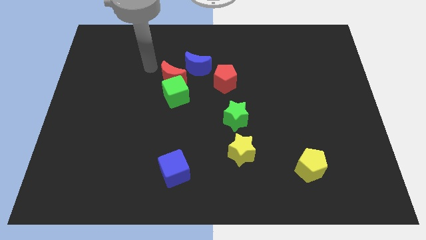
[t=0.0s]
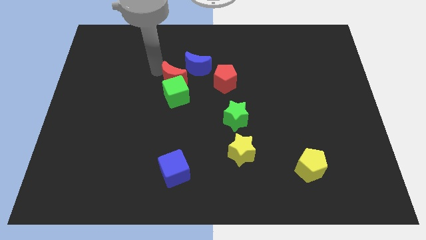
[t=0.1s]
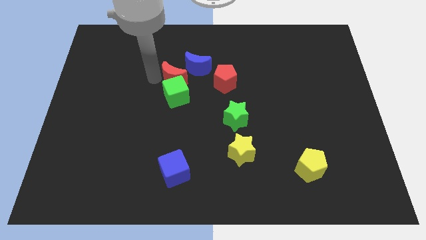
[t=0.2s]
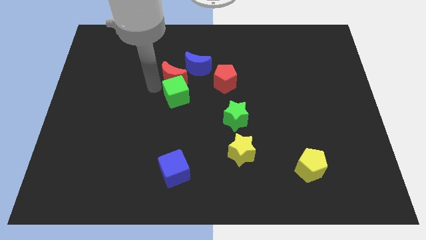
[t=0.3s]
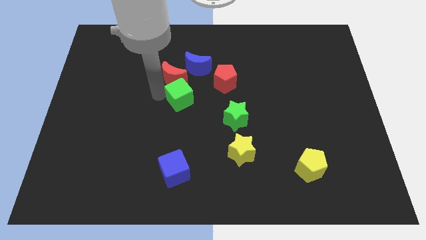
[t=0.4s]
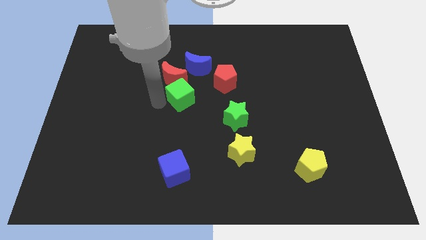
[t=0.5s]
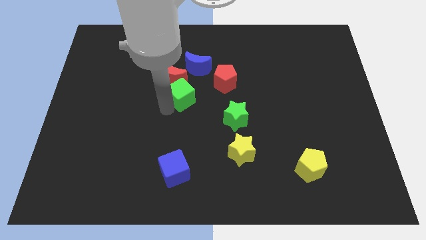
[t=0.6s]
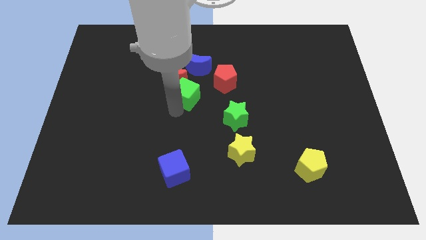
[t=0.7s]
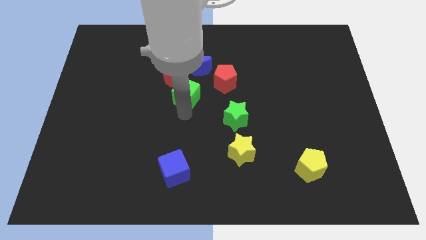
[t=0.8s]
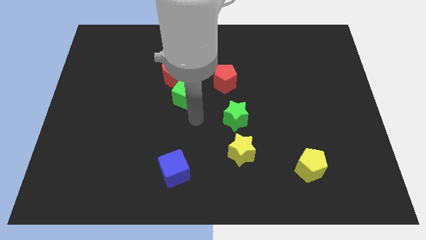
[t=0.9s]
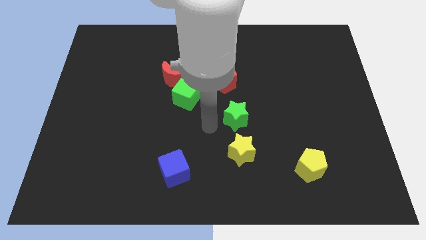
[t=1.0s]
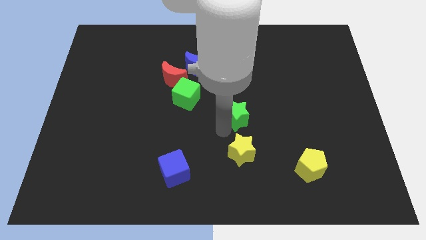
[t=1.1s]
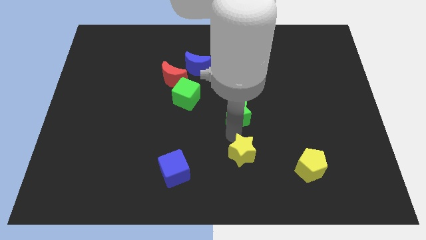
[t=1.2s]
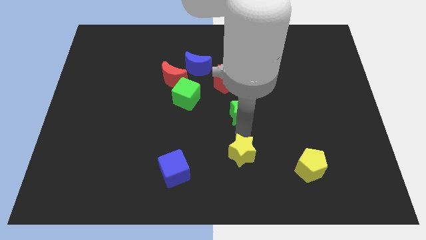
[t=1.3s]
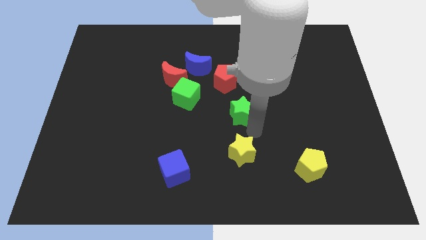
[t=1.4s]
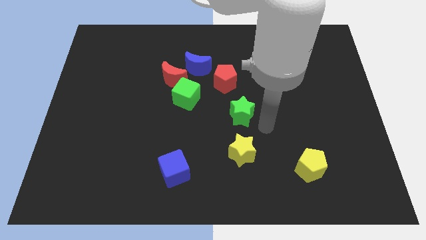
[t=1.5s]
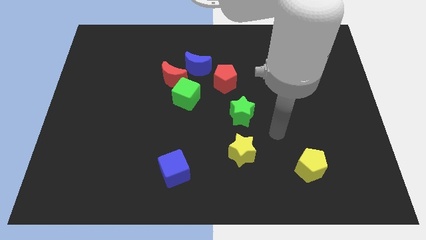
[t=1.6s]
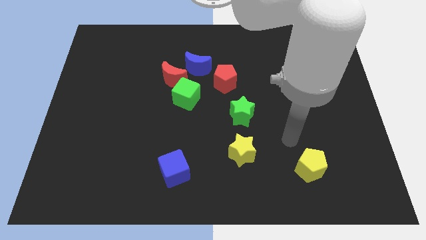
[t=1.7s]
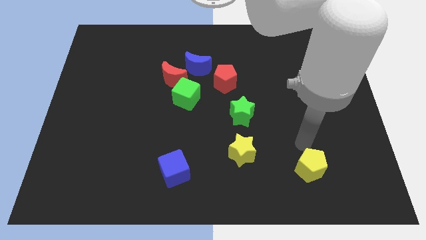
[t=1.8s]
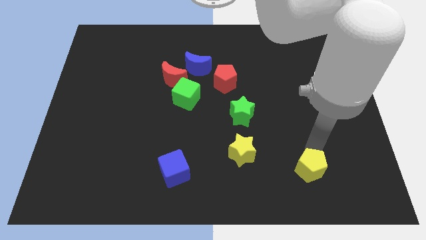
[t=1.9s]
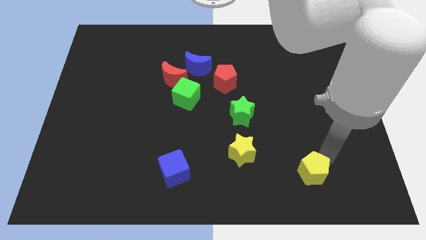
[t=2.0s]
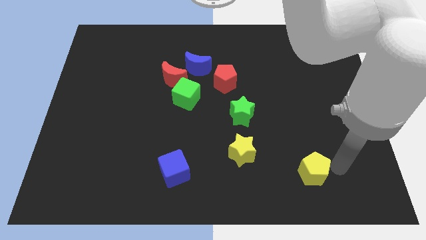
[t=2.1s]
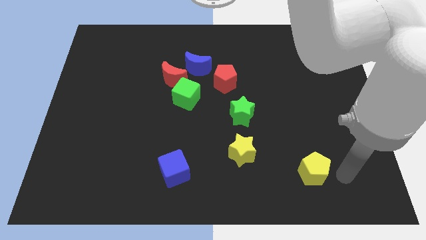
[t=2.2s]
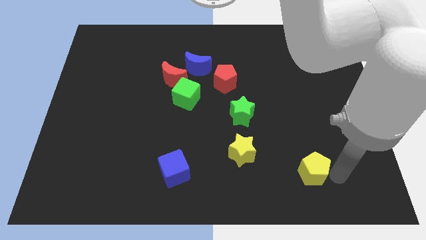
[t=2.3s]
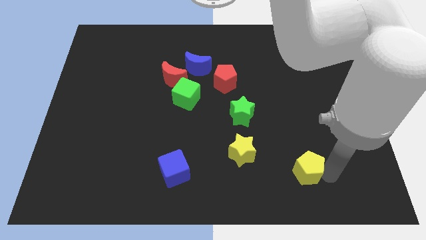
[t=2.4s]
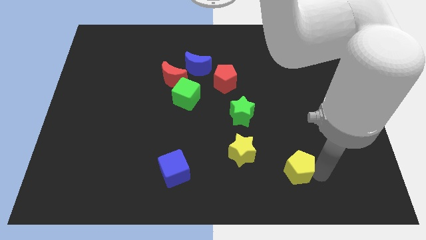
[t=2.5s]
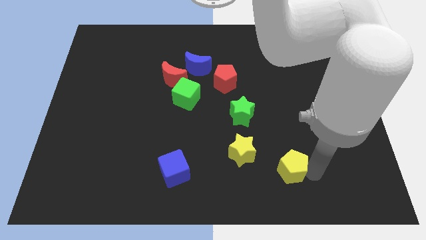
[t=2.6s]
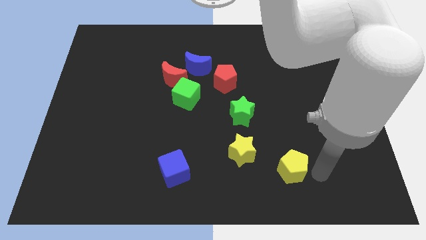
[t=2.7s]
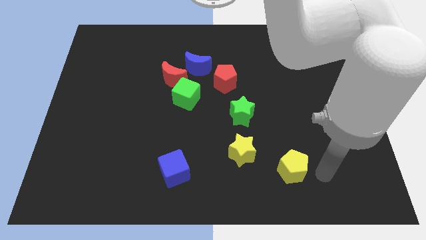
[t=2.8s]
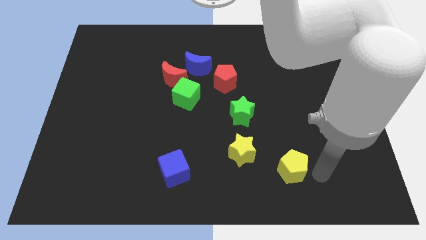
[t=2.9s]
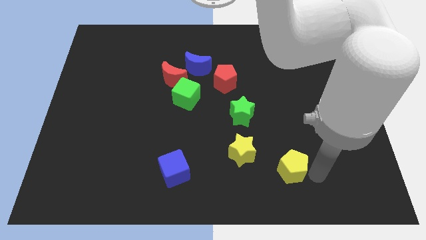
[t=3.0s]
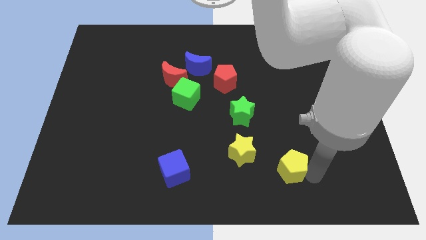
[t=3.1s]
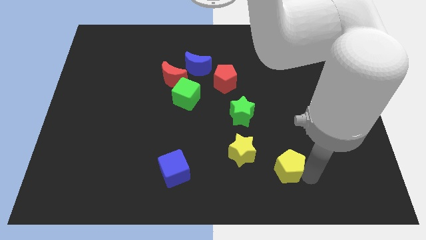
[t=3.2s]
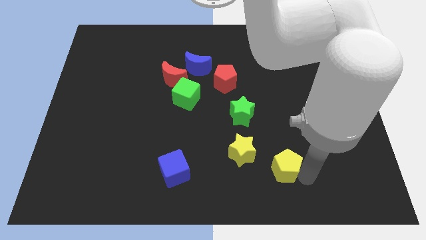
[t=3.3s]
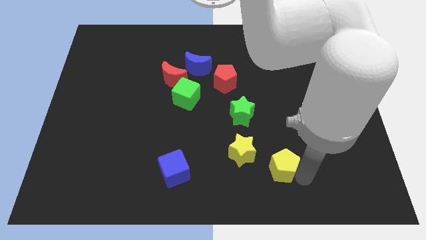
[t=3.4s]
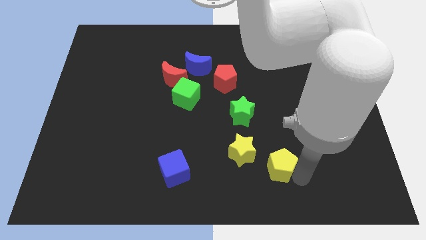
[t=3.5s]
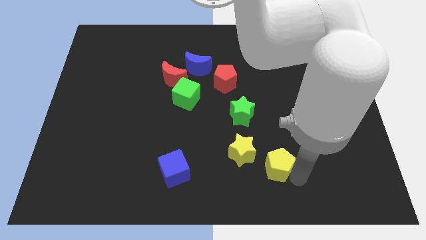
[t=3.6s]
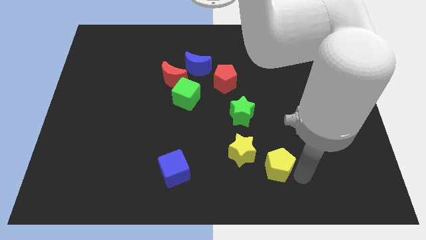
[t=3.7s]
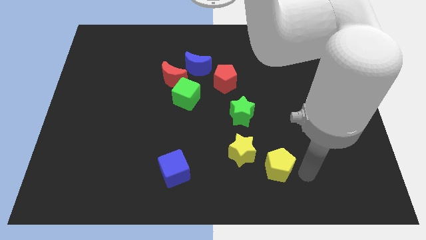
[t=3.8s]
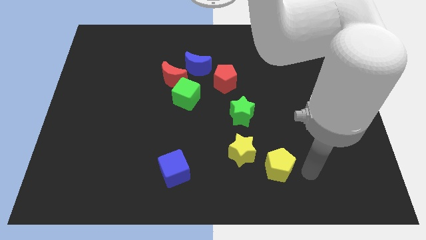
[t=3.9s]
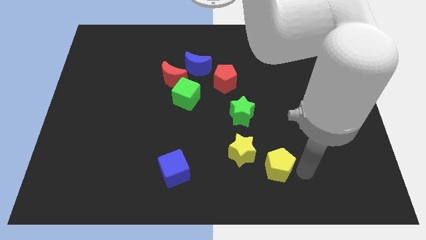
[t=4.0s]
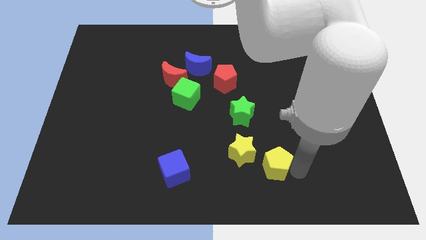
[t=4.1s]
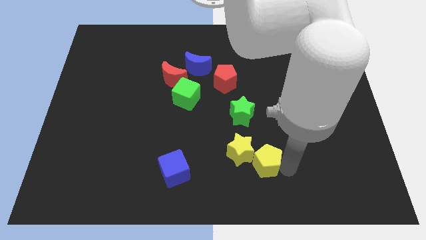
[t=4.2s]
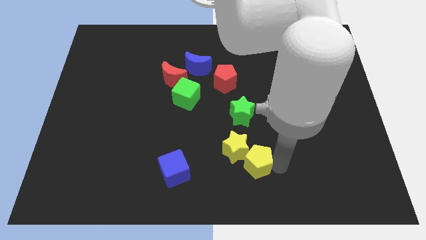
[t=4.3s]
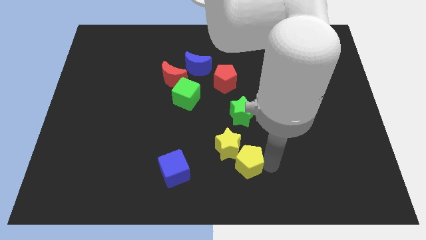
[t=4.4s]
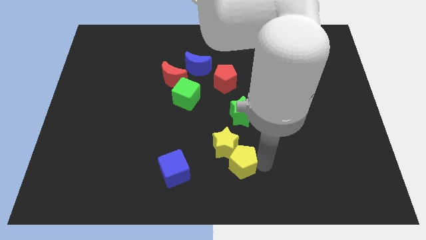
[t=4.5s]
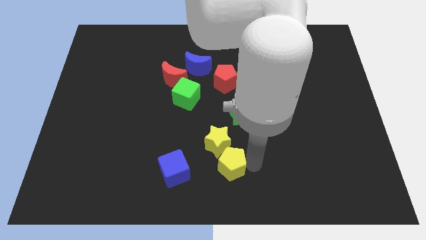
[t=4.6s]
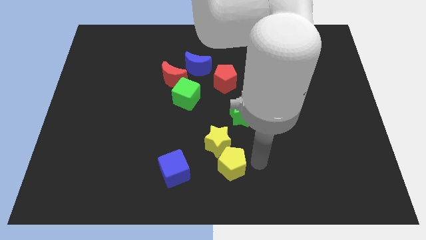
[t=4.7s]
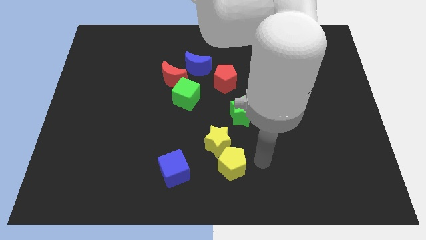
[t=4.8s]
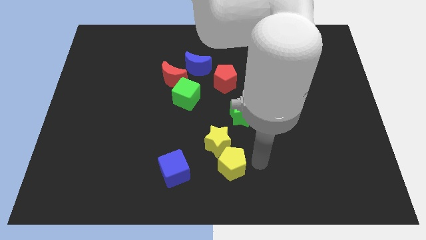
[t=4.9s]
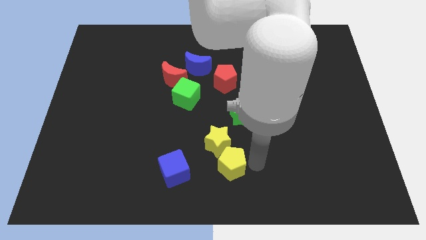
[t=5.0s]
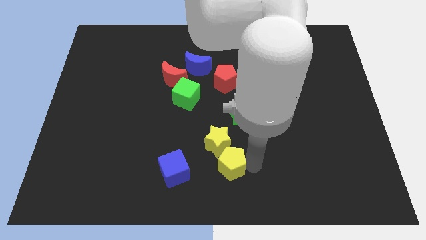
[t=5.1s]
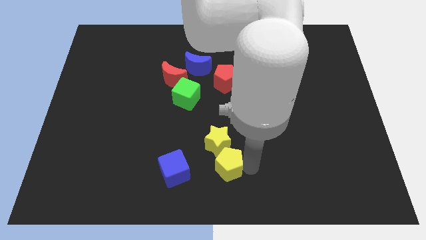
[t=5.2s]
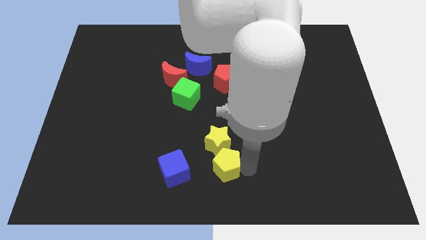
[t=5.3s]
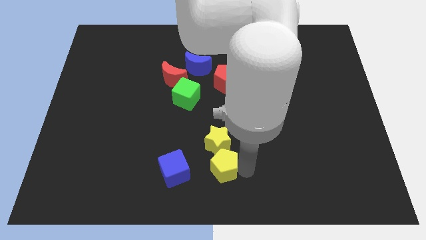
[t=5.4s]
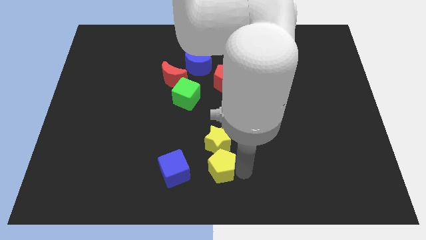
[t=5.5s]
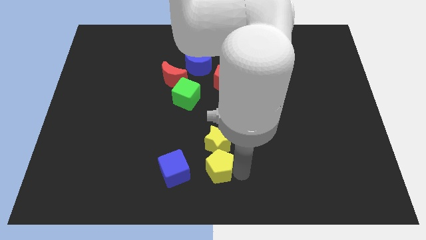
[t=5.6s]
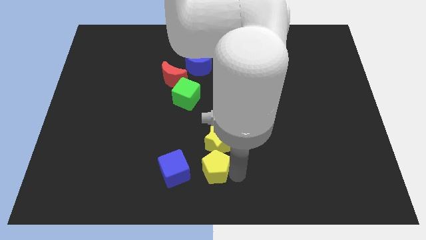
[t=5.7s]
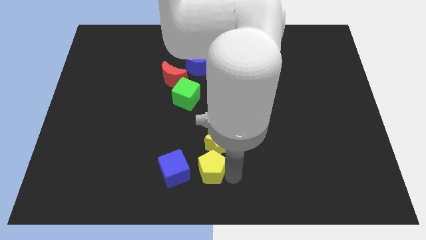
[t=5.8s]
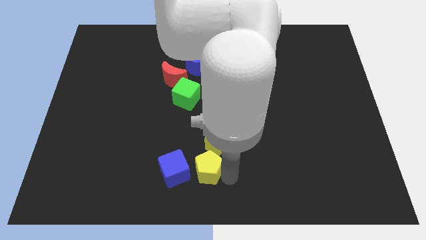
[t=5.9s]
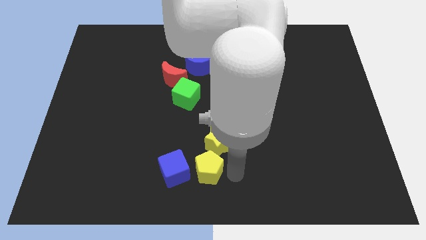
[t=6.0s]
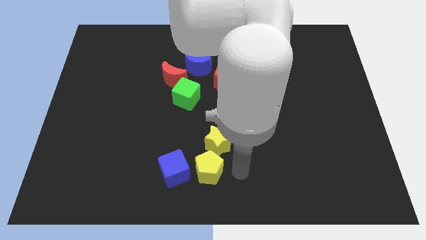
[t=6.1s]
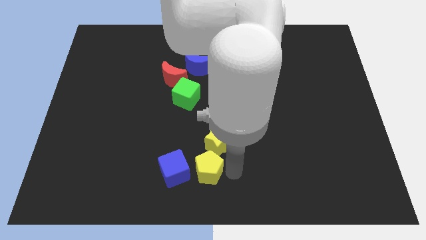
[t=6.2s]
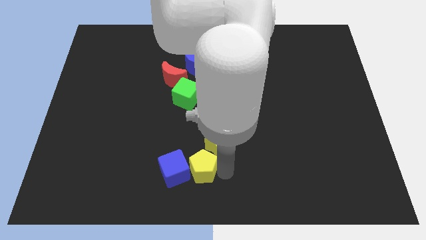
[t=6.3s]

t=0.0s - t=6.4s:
push the yellow pentagon close to the blue cube
